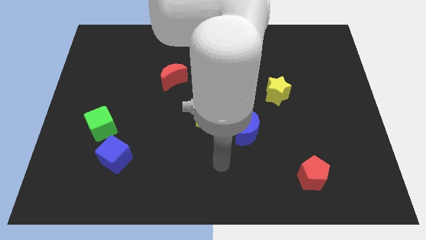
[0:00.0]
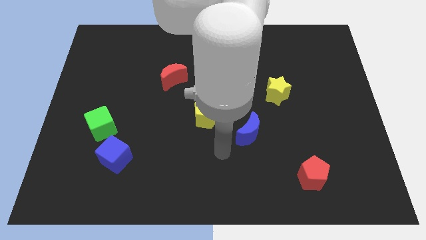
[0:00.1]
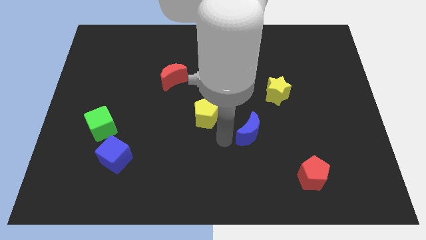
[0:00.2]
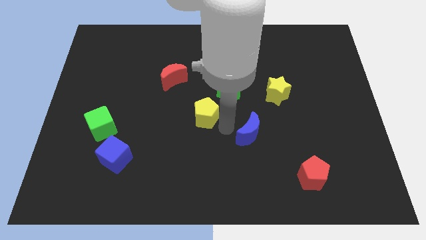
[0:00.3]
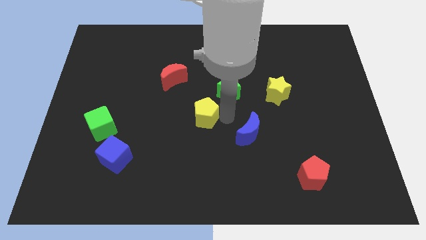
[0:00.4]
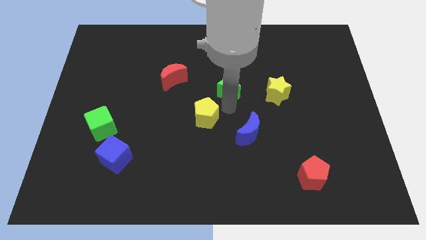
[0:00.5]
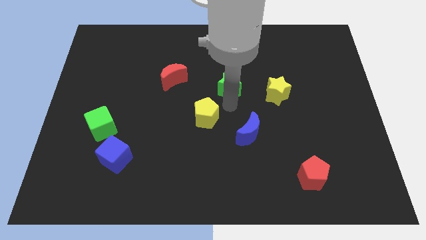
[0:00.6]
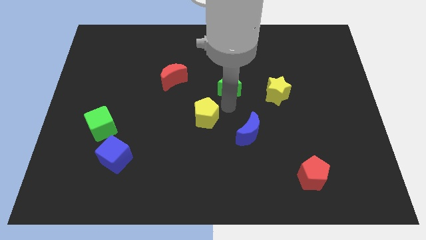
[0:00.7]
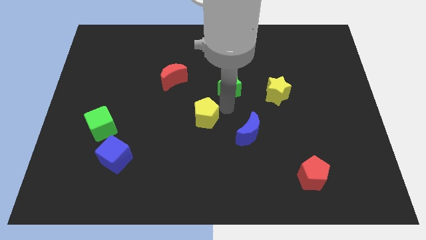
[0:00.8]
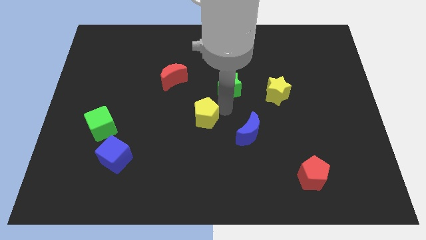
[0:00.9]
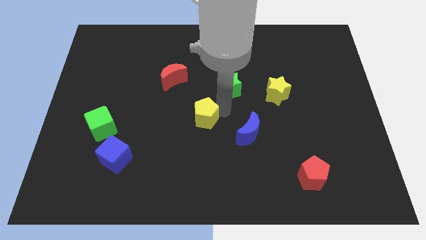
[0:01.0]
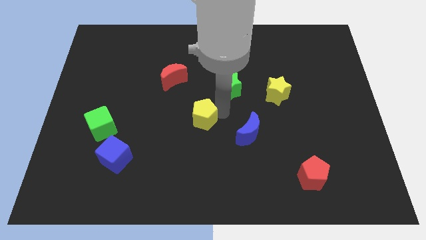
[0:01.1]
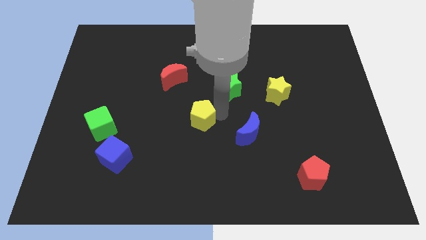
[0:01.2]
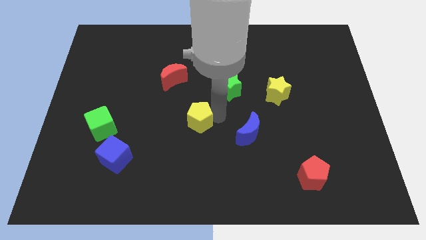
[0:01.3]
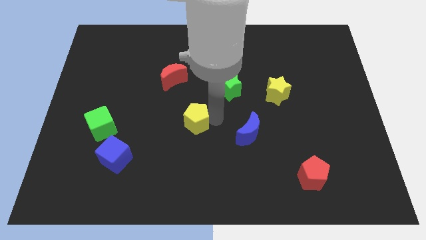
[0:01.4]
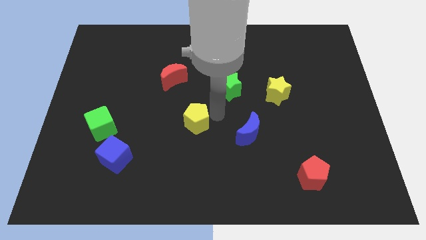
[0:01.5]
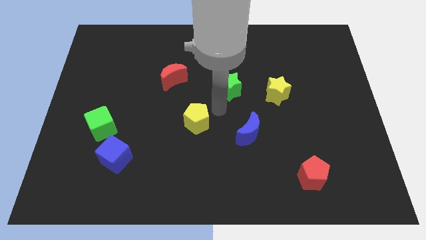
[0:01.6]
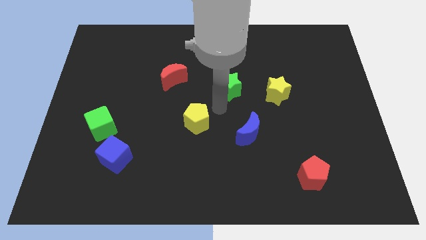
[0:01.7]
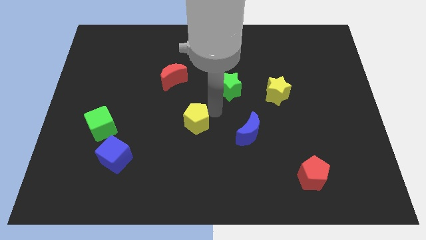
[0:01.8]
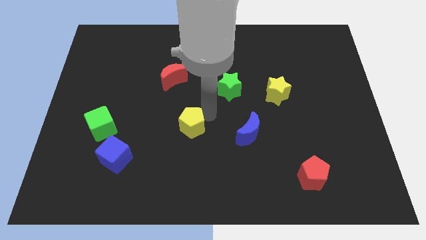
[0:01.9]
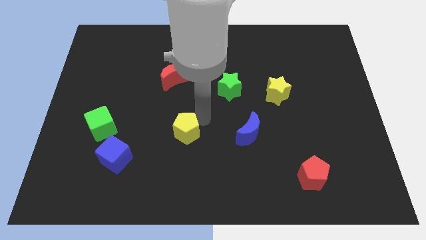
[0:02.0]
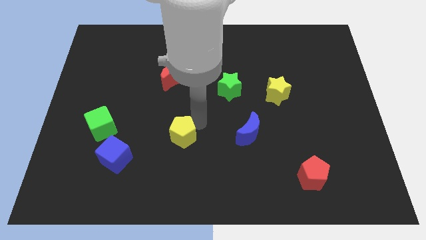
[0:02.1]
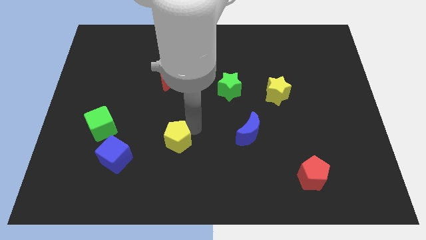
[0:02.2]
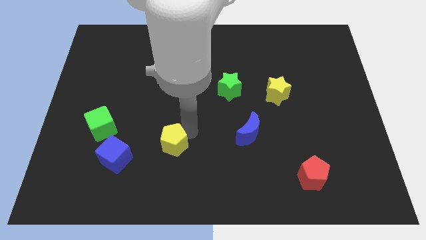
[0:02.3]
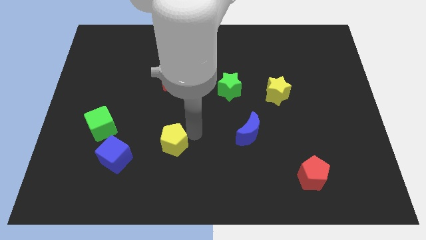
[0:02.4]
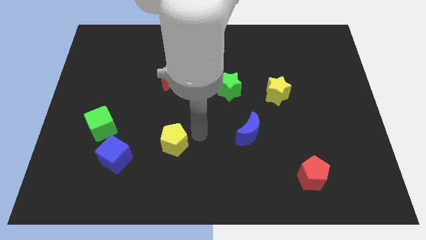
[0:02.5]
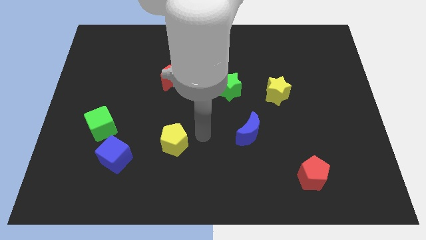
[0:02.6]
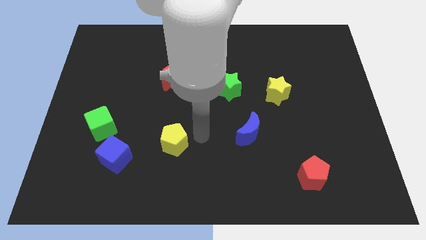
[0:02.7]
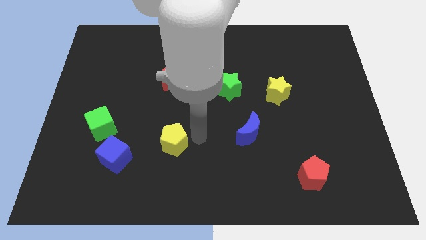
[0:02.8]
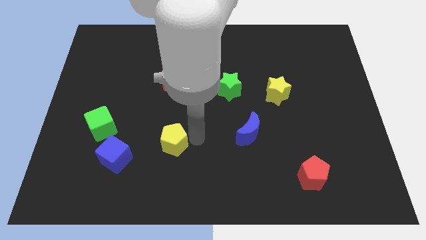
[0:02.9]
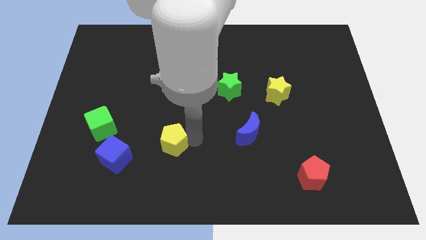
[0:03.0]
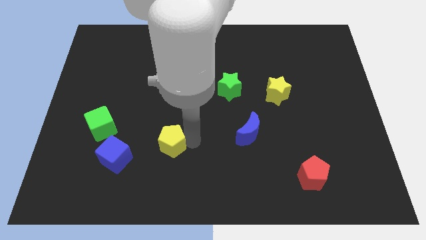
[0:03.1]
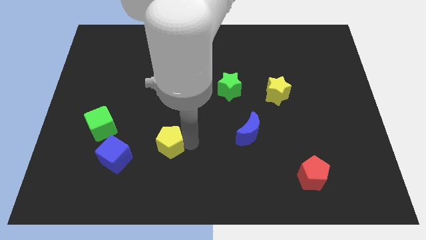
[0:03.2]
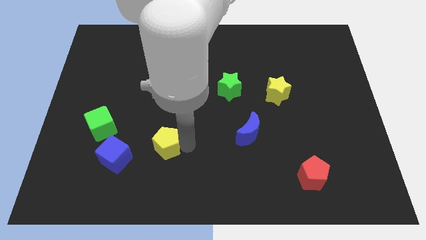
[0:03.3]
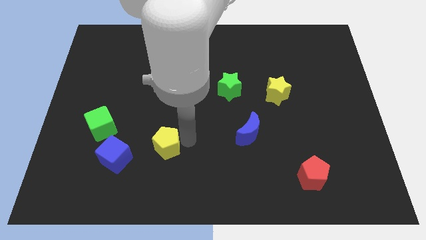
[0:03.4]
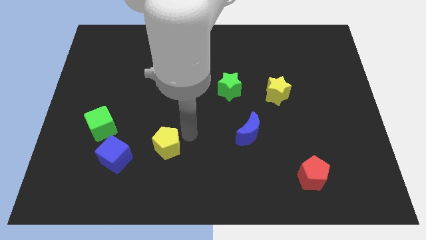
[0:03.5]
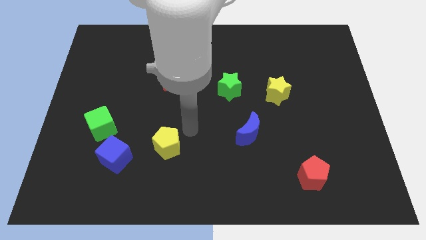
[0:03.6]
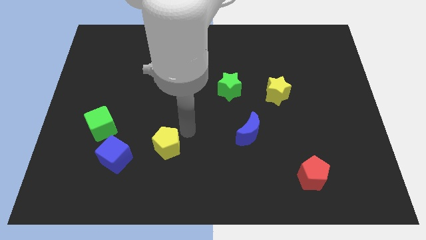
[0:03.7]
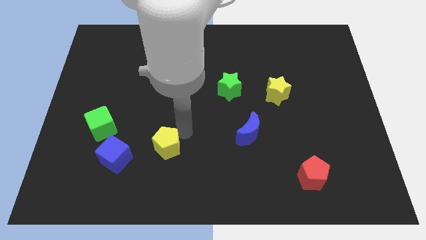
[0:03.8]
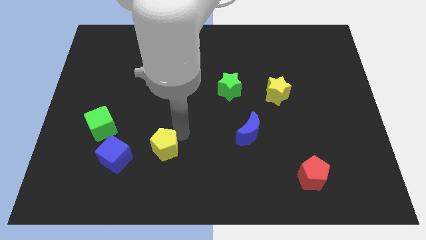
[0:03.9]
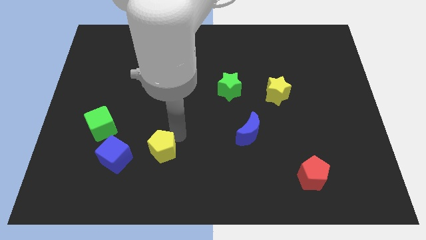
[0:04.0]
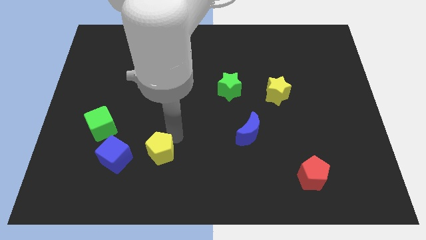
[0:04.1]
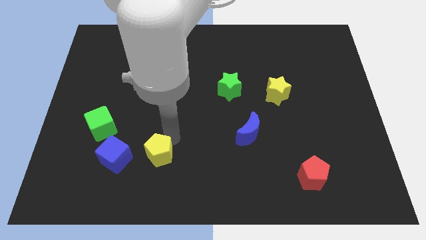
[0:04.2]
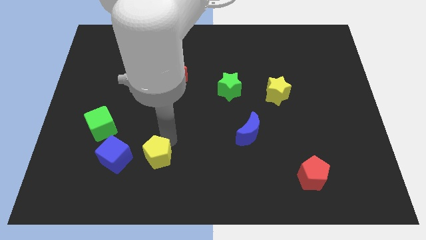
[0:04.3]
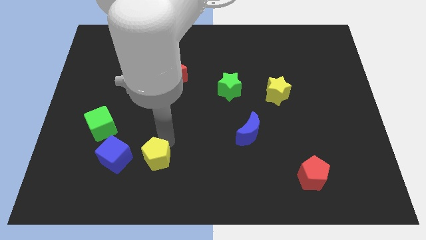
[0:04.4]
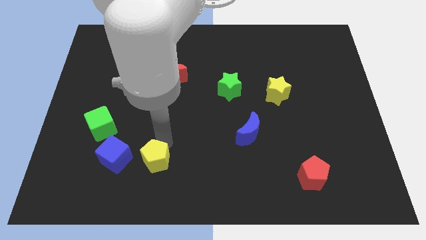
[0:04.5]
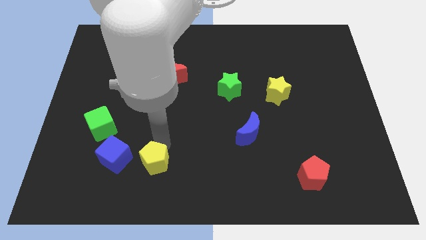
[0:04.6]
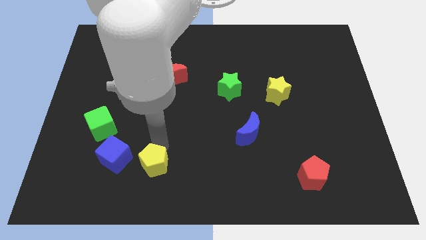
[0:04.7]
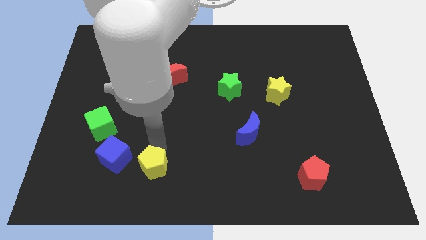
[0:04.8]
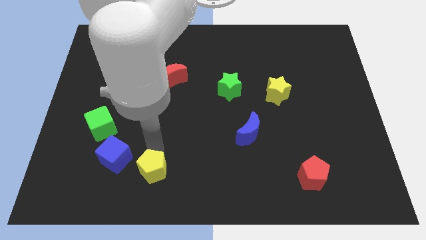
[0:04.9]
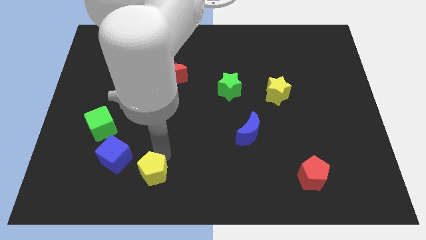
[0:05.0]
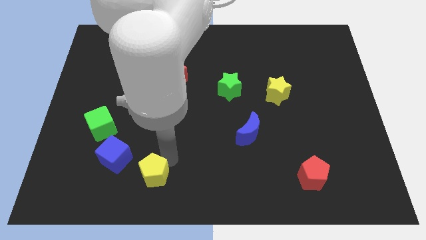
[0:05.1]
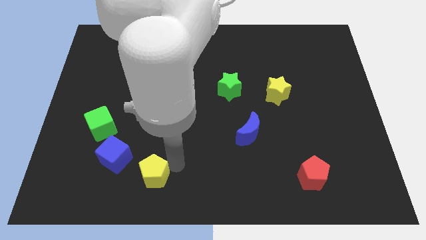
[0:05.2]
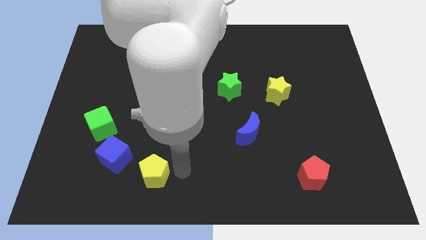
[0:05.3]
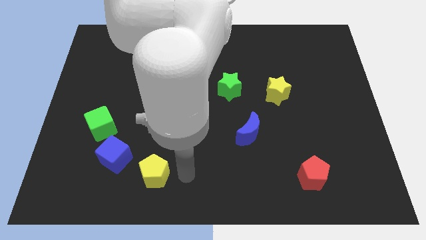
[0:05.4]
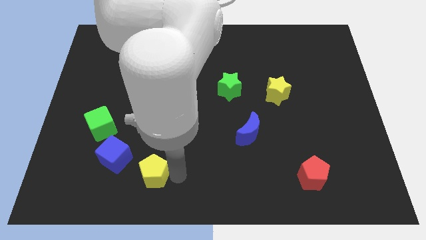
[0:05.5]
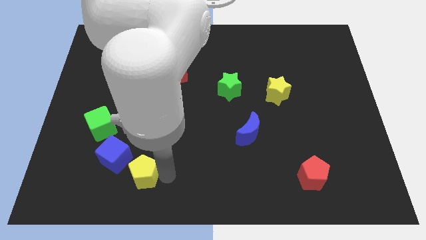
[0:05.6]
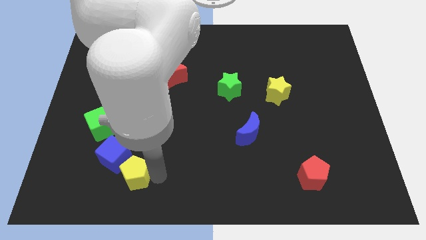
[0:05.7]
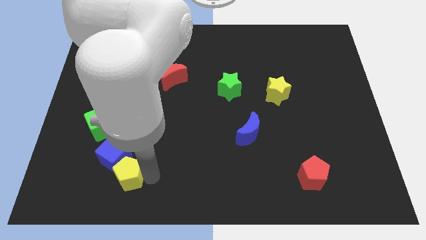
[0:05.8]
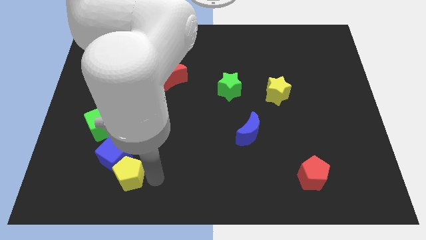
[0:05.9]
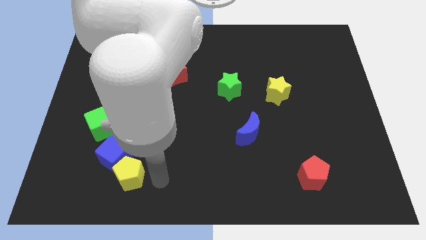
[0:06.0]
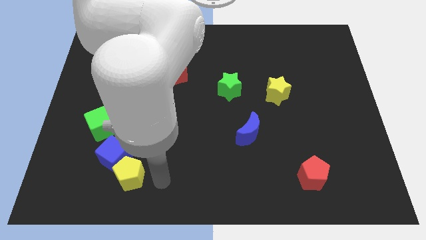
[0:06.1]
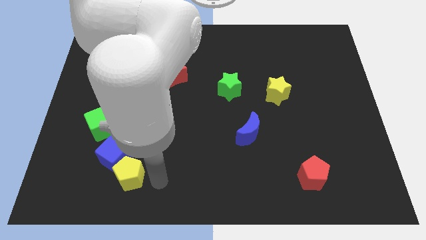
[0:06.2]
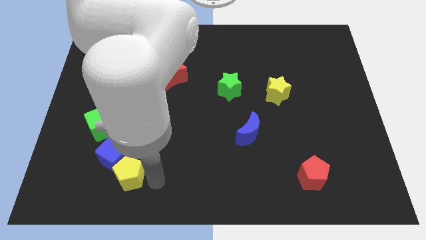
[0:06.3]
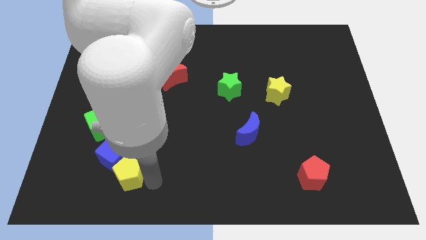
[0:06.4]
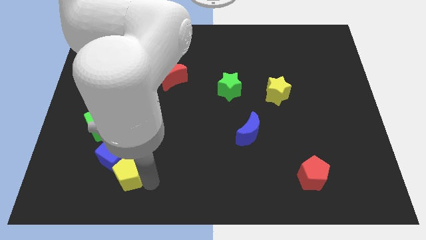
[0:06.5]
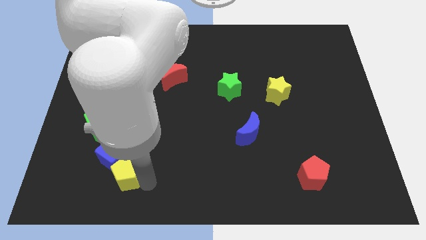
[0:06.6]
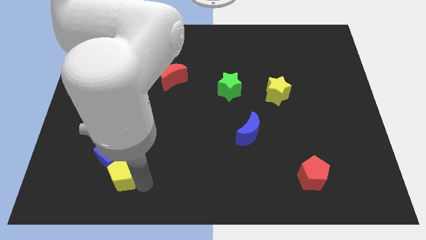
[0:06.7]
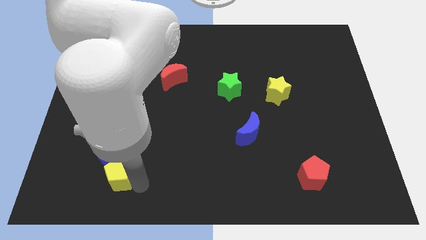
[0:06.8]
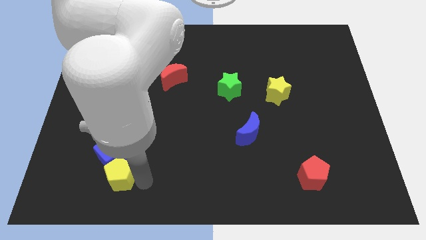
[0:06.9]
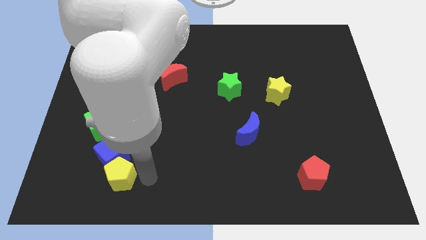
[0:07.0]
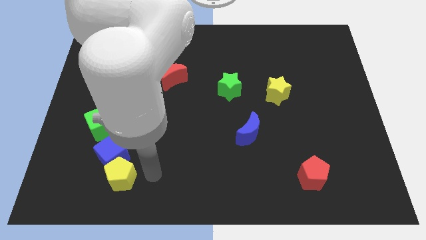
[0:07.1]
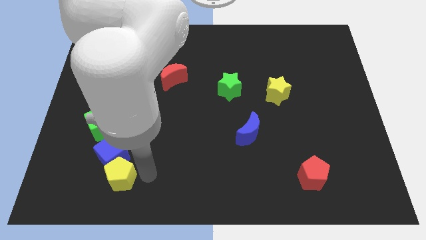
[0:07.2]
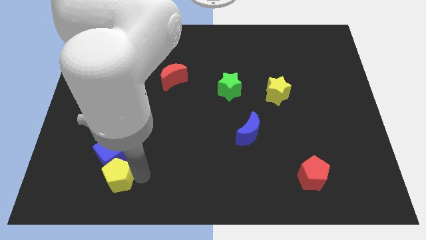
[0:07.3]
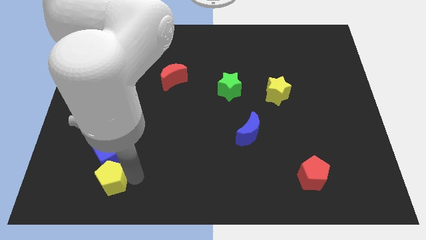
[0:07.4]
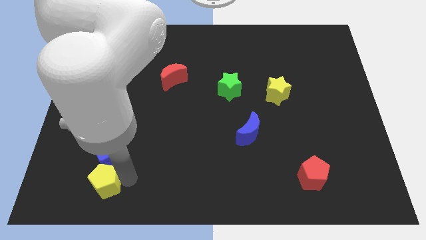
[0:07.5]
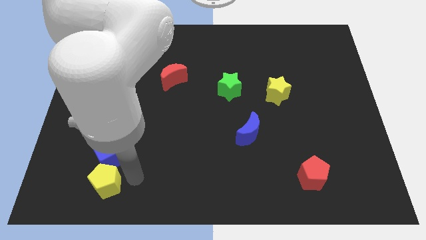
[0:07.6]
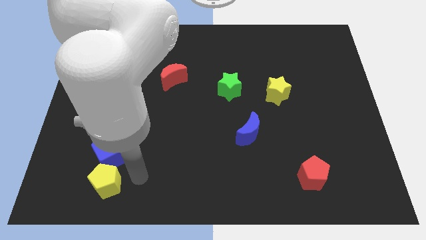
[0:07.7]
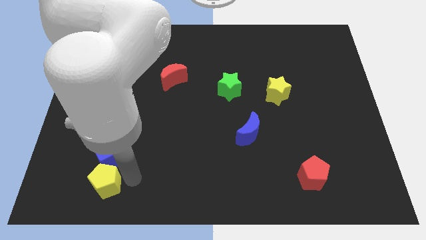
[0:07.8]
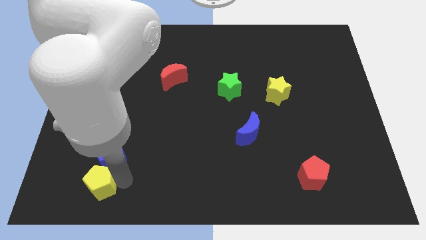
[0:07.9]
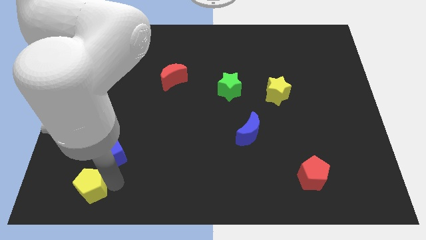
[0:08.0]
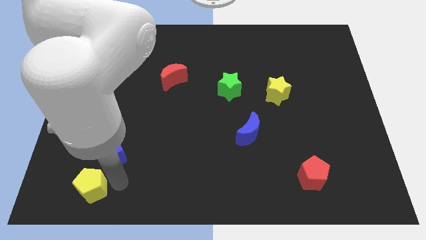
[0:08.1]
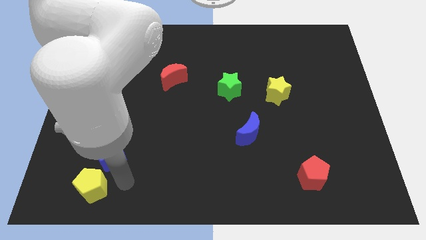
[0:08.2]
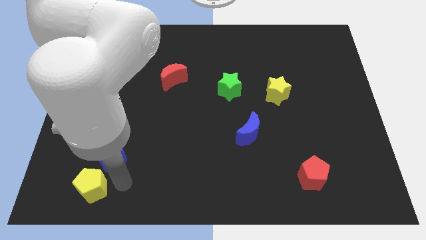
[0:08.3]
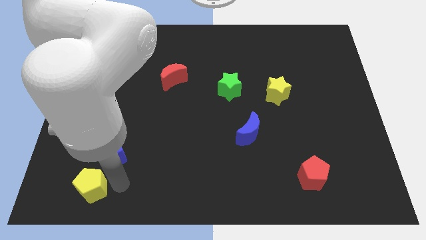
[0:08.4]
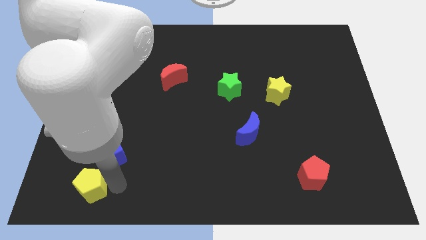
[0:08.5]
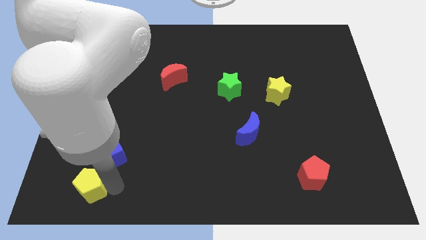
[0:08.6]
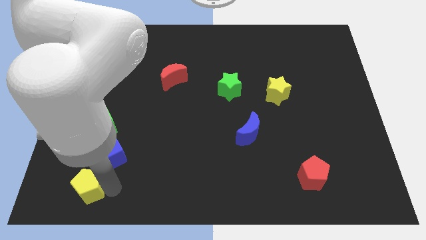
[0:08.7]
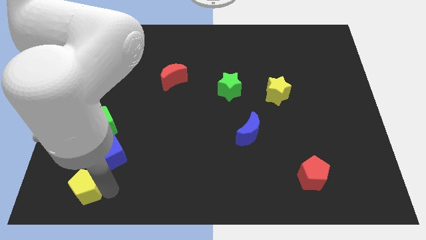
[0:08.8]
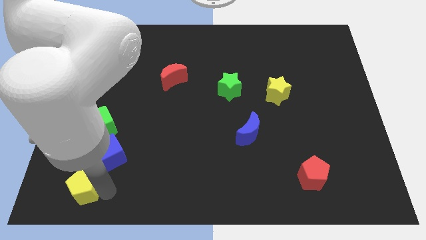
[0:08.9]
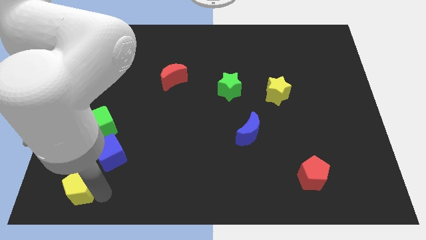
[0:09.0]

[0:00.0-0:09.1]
push the yellow pentagon to the bottom left corner
